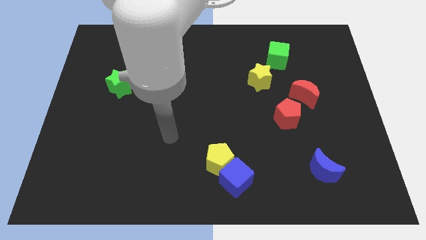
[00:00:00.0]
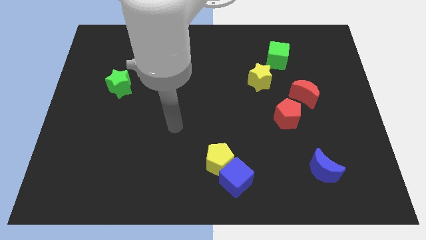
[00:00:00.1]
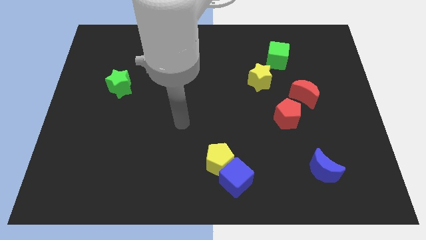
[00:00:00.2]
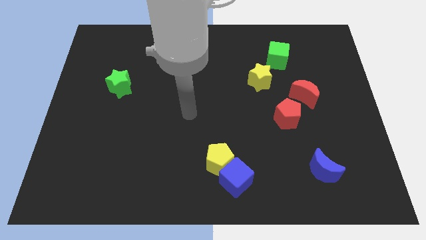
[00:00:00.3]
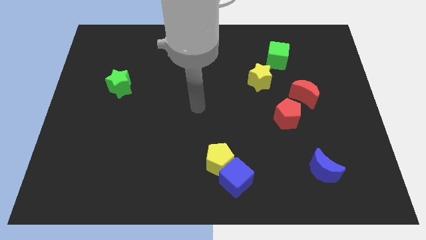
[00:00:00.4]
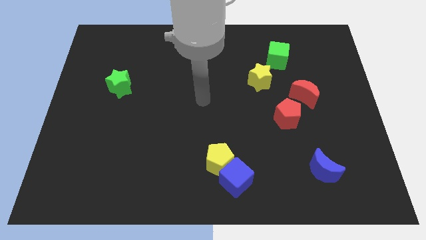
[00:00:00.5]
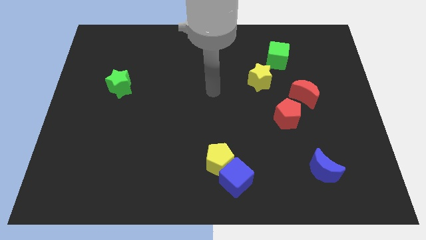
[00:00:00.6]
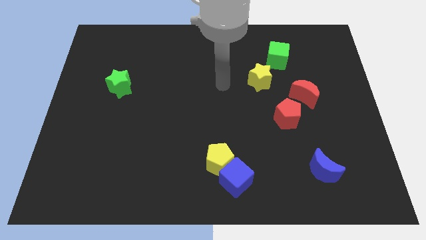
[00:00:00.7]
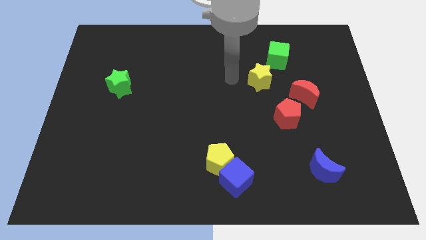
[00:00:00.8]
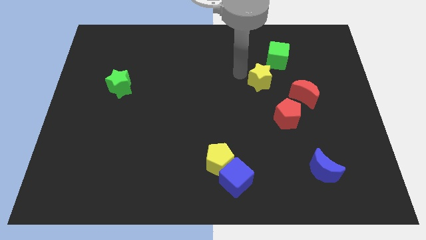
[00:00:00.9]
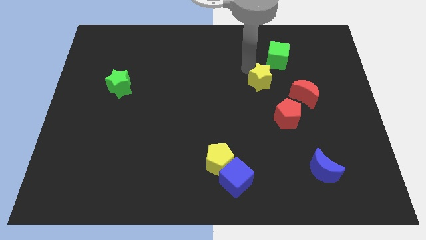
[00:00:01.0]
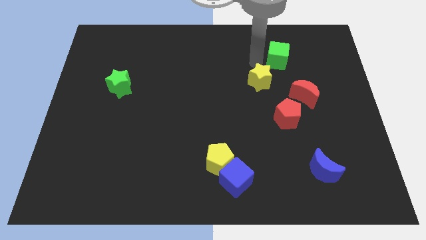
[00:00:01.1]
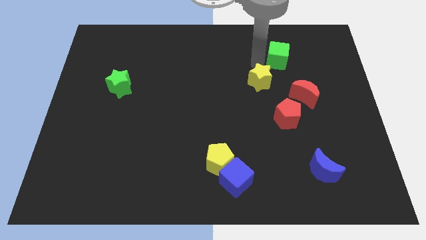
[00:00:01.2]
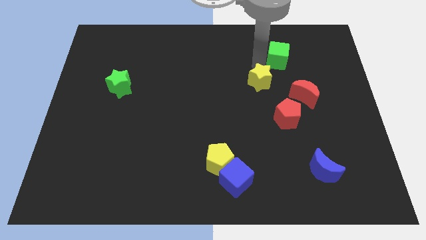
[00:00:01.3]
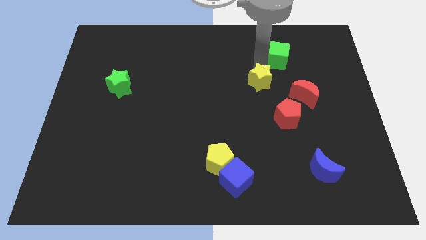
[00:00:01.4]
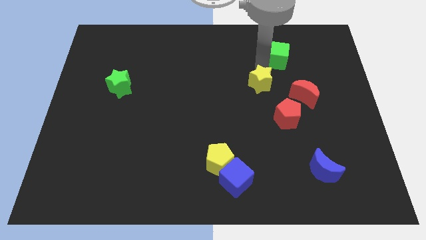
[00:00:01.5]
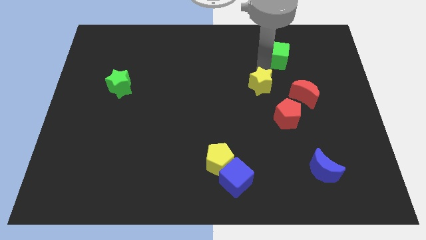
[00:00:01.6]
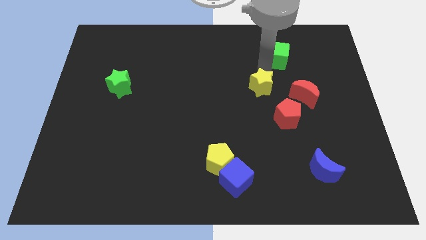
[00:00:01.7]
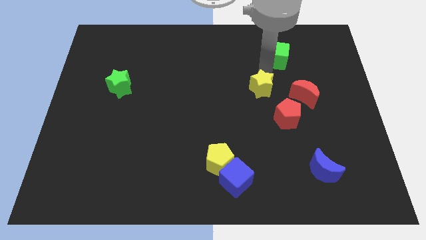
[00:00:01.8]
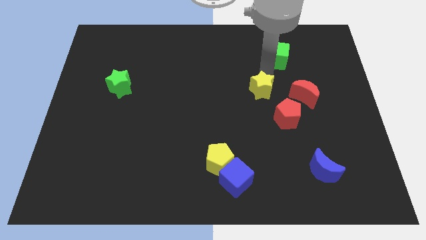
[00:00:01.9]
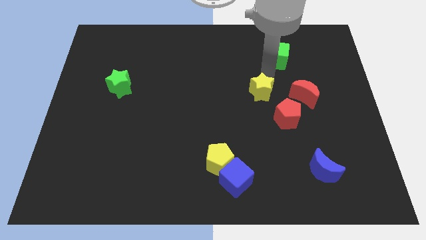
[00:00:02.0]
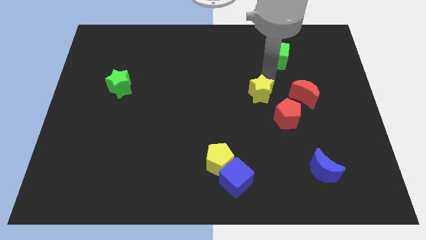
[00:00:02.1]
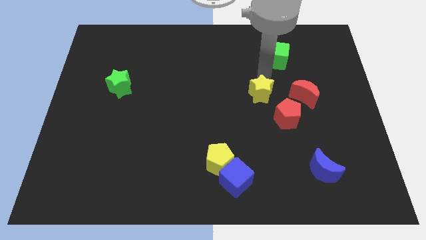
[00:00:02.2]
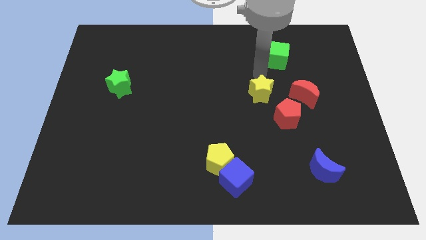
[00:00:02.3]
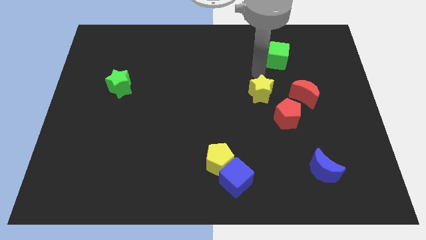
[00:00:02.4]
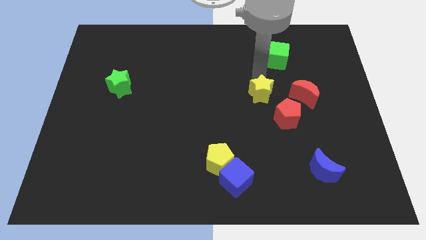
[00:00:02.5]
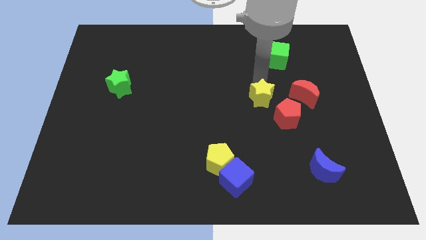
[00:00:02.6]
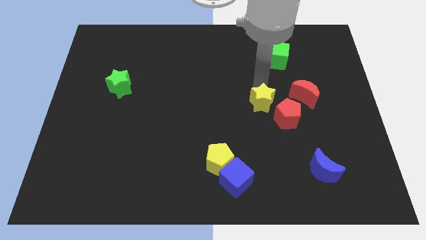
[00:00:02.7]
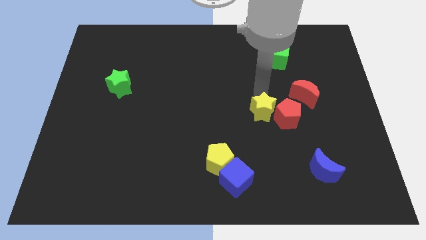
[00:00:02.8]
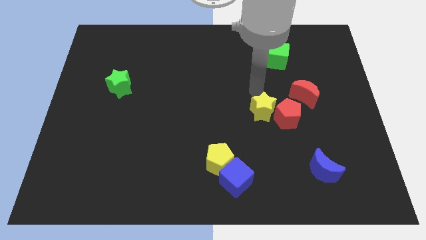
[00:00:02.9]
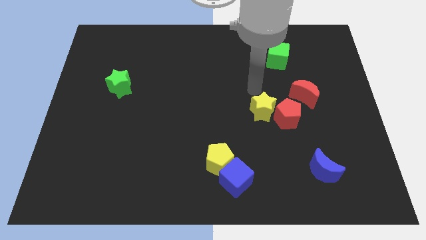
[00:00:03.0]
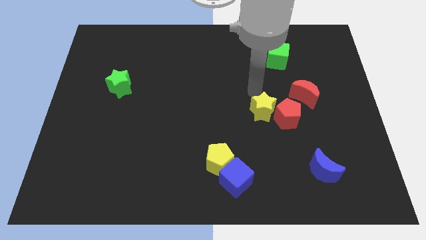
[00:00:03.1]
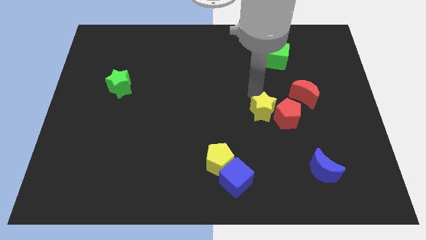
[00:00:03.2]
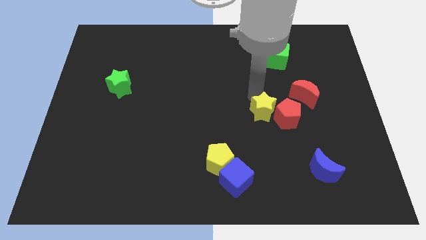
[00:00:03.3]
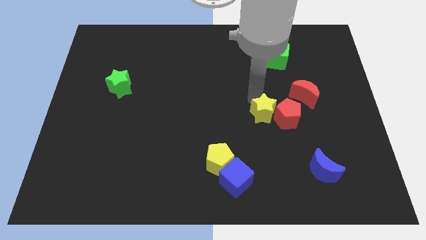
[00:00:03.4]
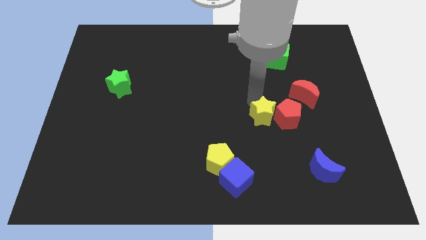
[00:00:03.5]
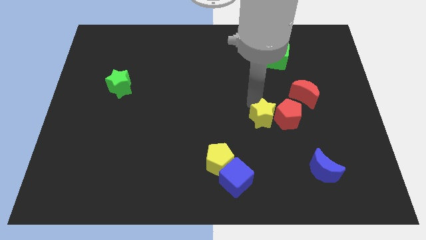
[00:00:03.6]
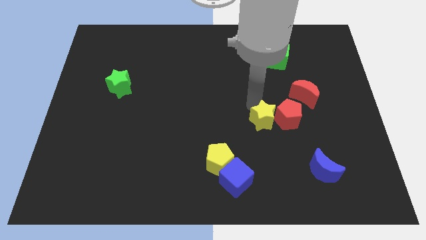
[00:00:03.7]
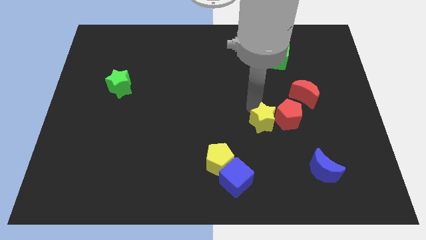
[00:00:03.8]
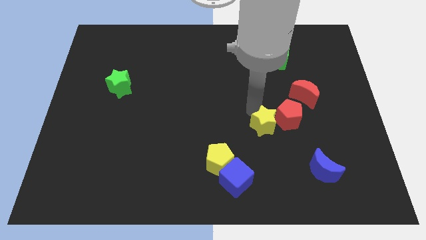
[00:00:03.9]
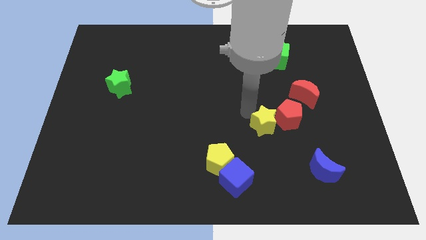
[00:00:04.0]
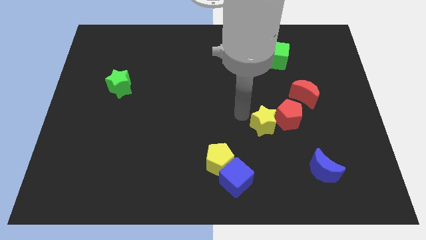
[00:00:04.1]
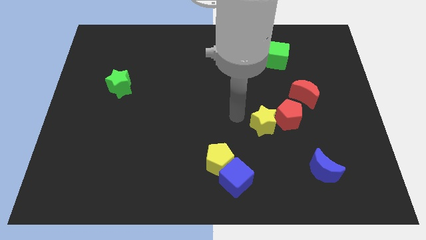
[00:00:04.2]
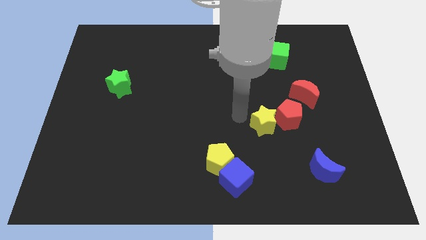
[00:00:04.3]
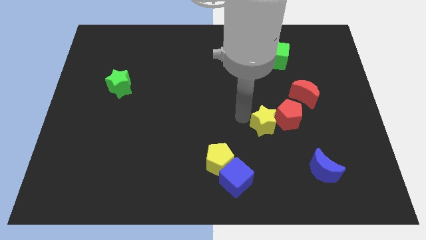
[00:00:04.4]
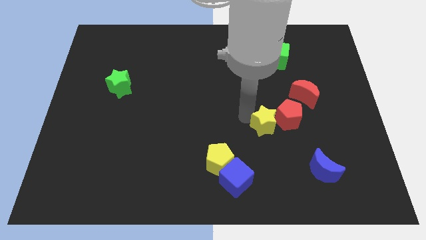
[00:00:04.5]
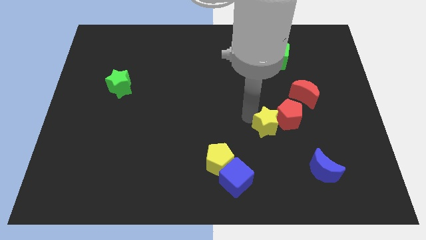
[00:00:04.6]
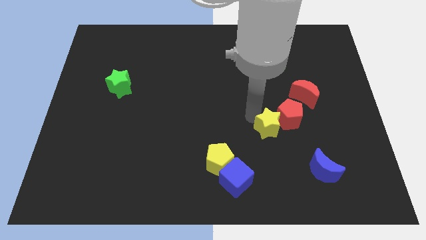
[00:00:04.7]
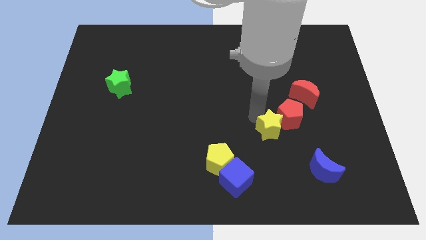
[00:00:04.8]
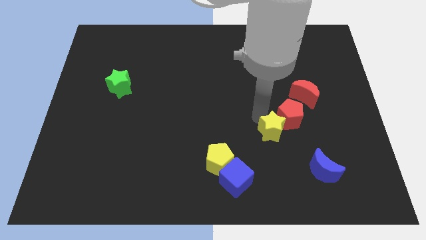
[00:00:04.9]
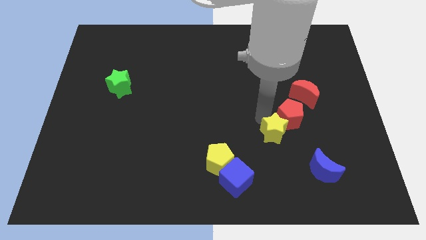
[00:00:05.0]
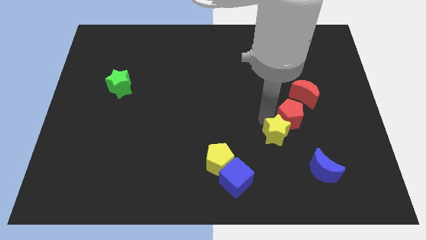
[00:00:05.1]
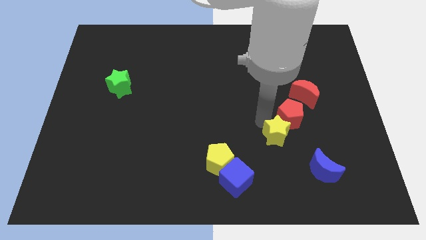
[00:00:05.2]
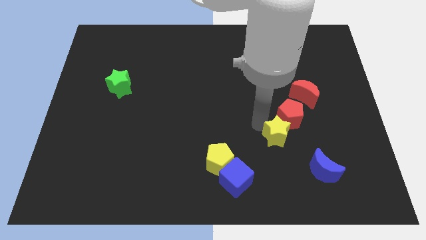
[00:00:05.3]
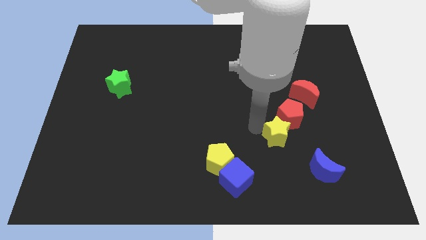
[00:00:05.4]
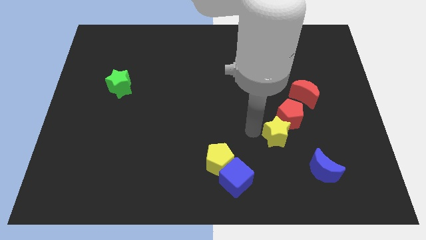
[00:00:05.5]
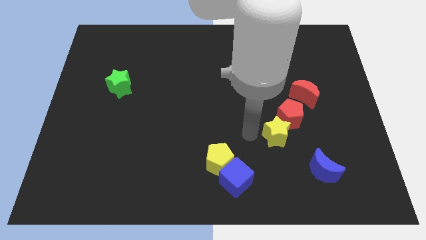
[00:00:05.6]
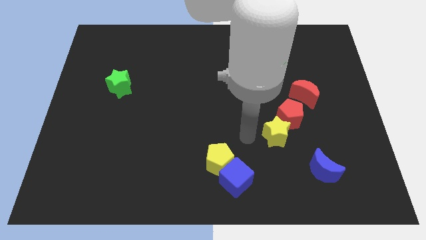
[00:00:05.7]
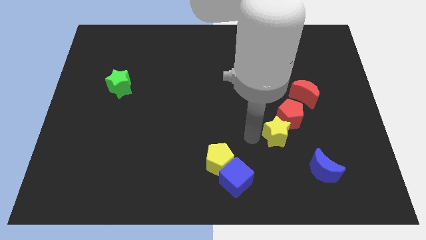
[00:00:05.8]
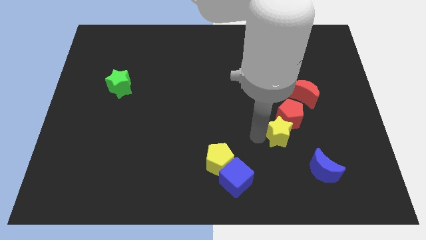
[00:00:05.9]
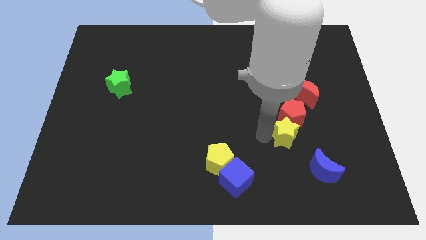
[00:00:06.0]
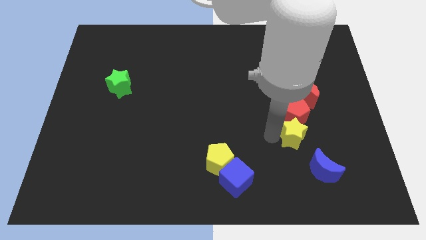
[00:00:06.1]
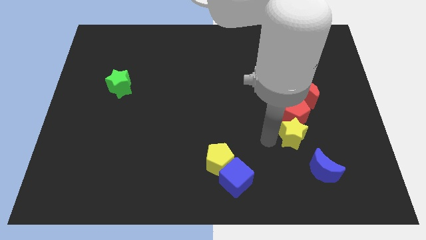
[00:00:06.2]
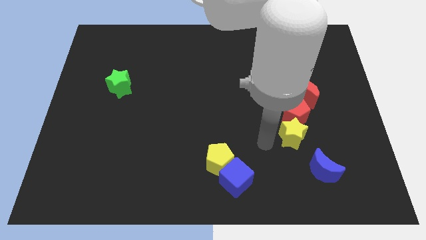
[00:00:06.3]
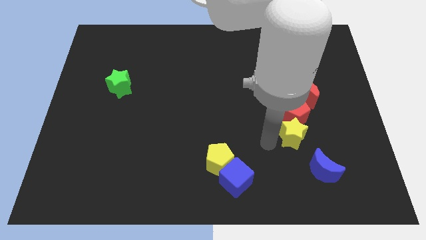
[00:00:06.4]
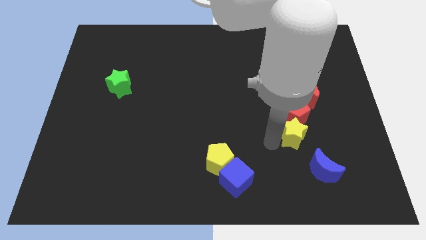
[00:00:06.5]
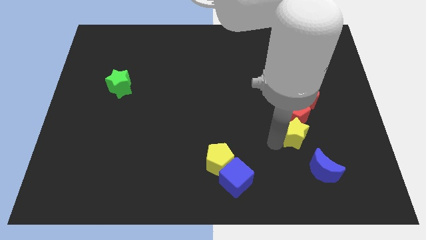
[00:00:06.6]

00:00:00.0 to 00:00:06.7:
slide the yellow star to the top of the blue moon
